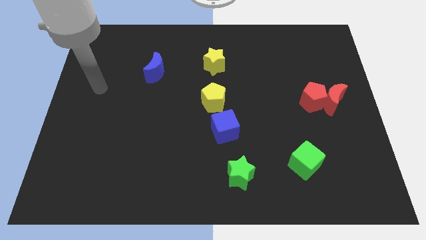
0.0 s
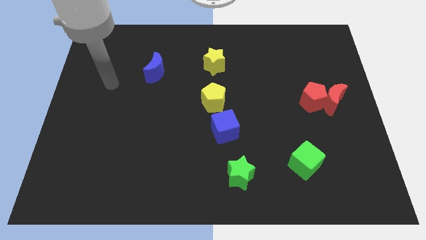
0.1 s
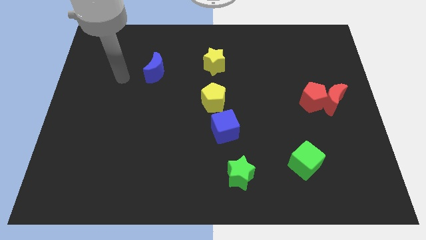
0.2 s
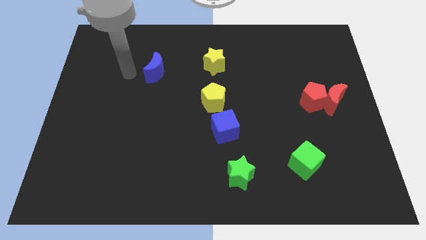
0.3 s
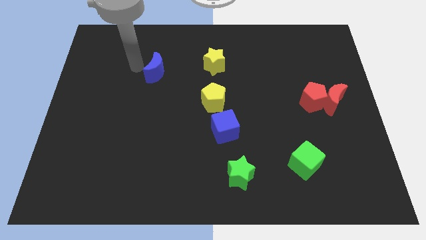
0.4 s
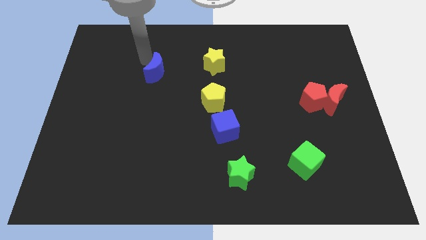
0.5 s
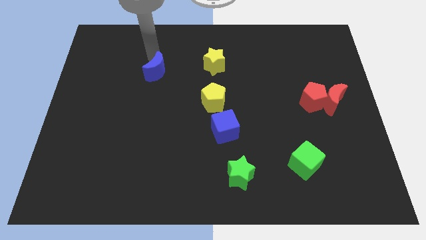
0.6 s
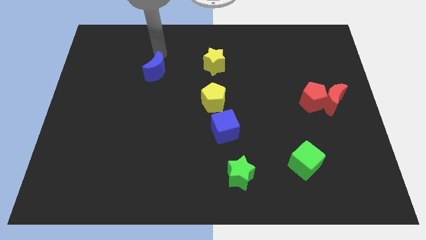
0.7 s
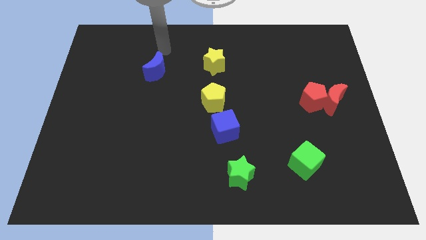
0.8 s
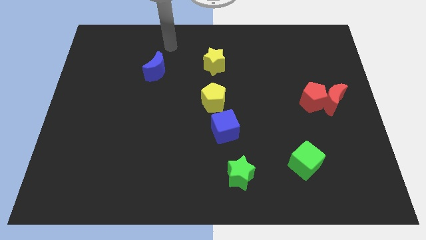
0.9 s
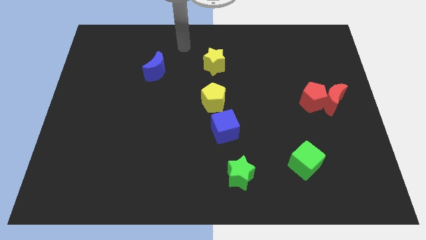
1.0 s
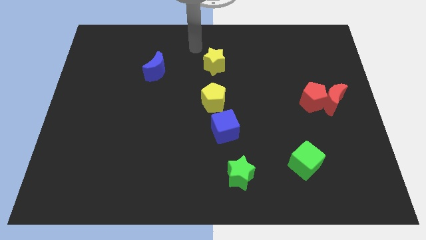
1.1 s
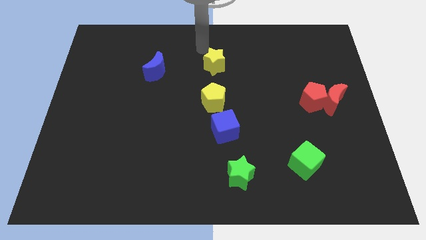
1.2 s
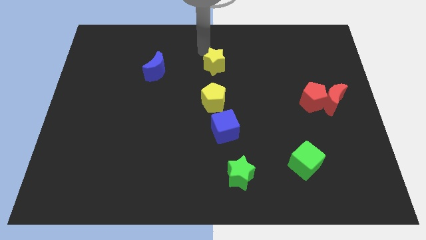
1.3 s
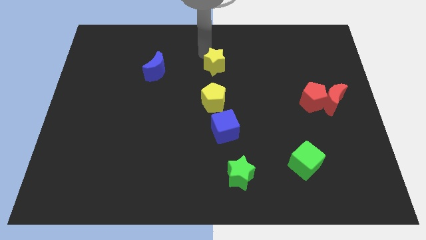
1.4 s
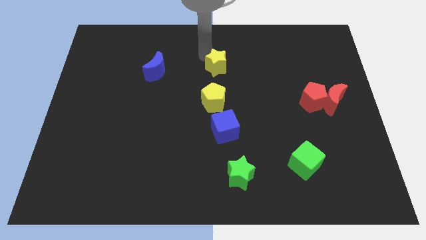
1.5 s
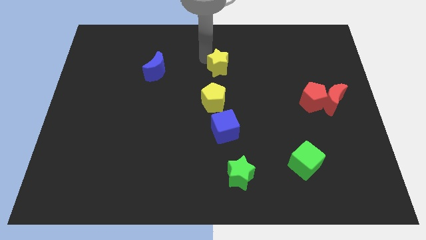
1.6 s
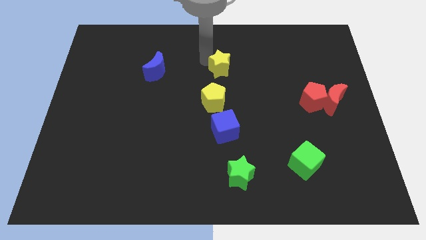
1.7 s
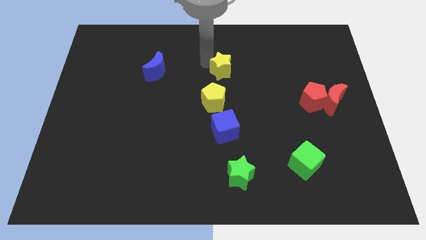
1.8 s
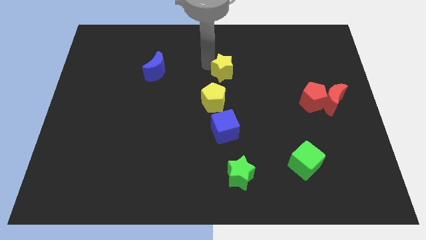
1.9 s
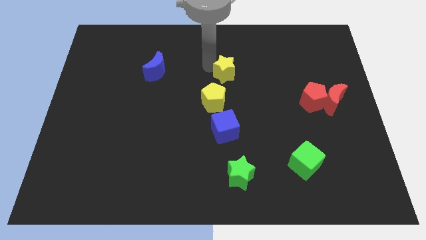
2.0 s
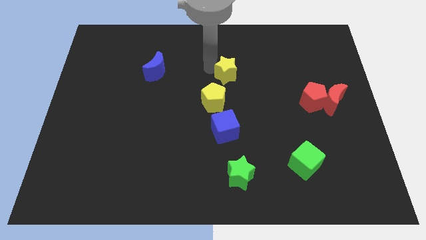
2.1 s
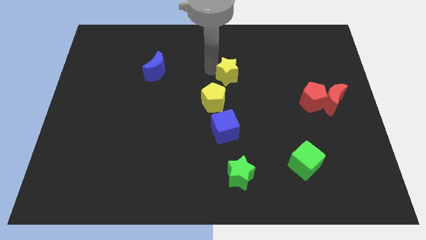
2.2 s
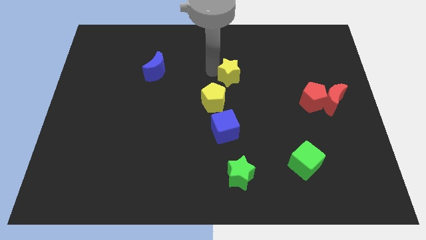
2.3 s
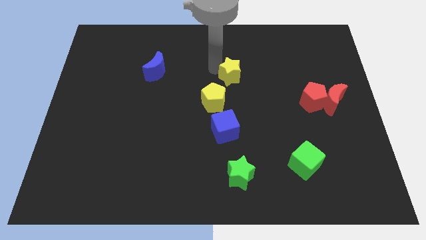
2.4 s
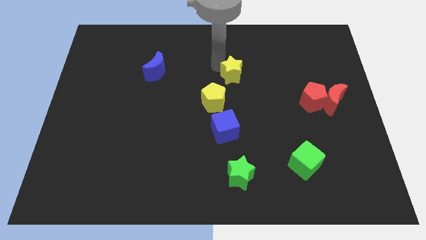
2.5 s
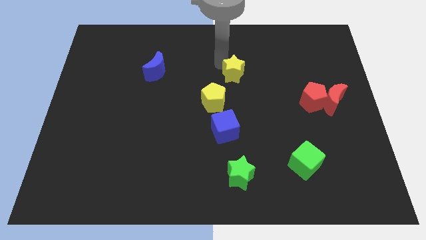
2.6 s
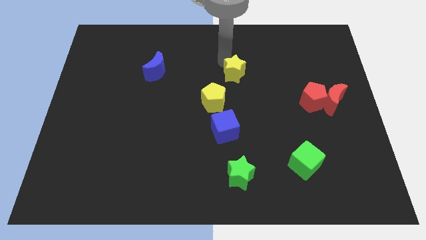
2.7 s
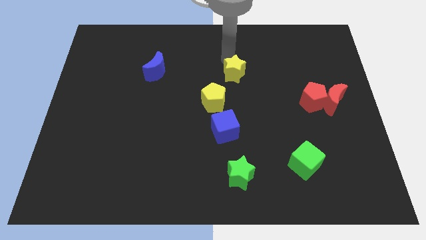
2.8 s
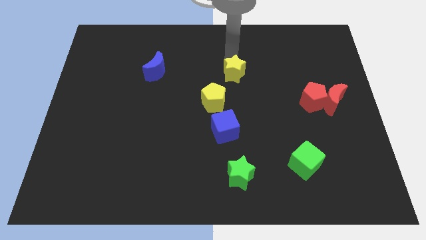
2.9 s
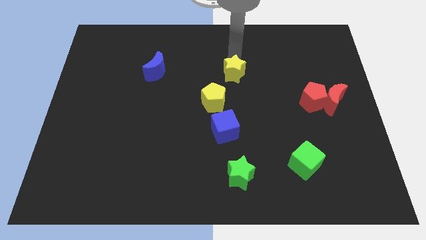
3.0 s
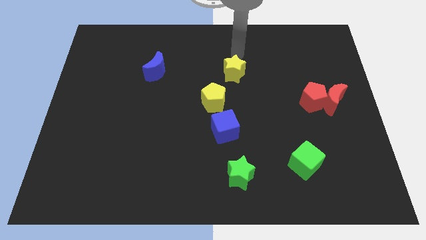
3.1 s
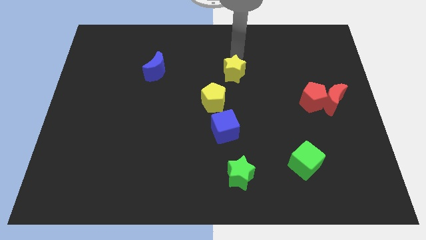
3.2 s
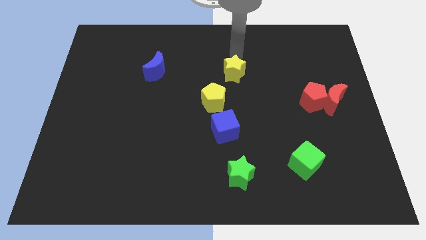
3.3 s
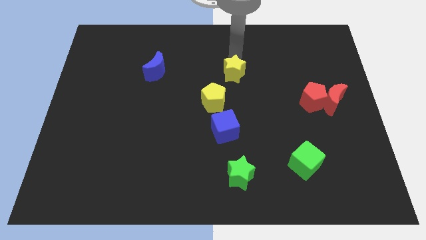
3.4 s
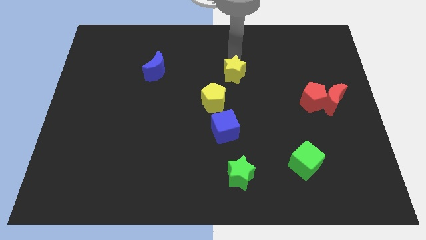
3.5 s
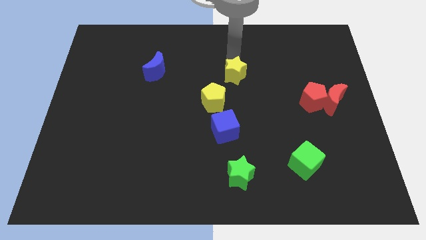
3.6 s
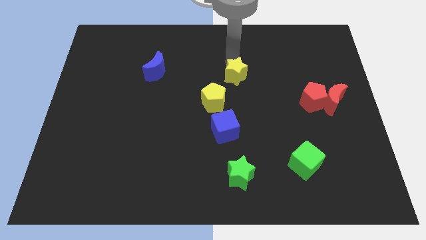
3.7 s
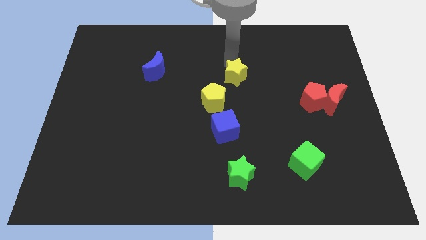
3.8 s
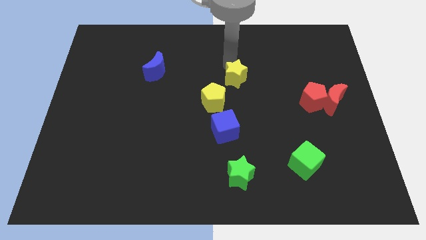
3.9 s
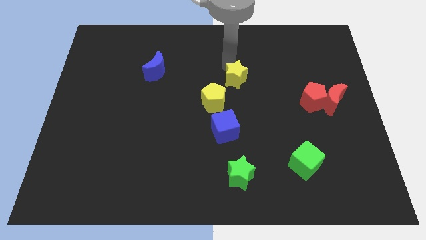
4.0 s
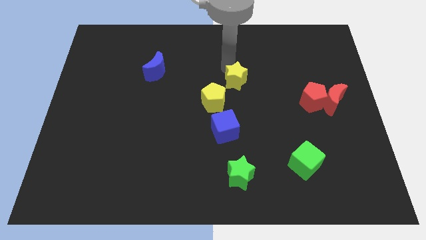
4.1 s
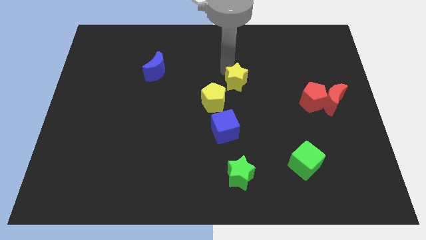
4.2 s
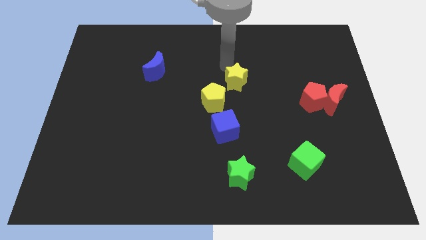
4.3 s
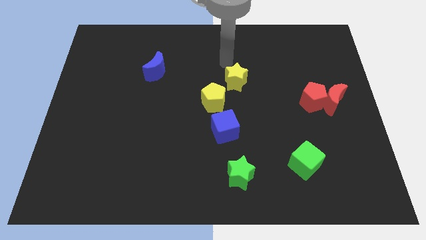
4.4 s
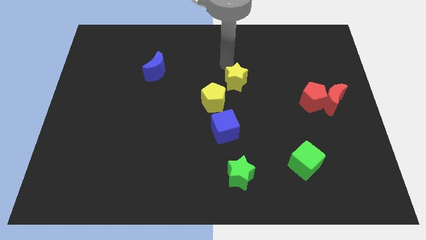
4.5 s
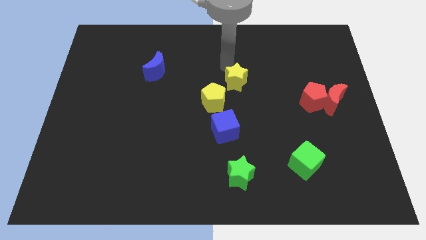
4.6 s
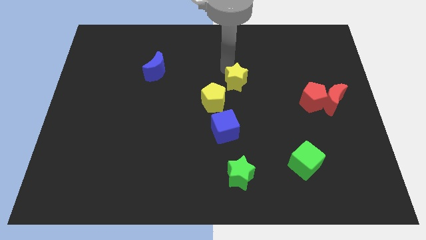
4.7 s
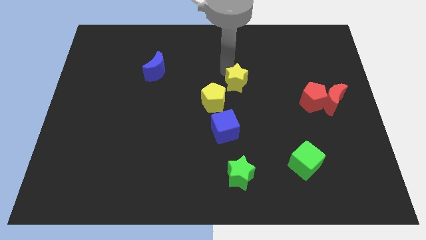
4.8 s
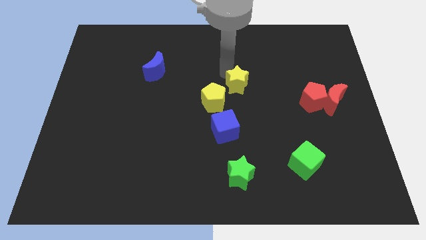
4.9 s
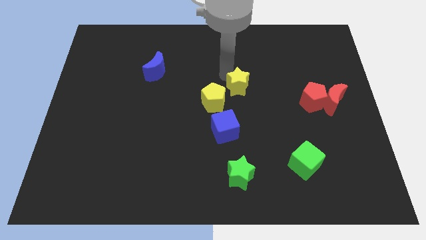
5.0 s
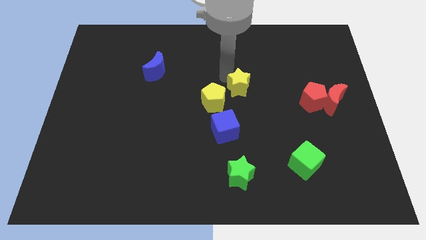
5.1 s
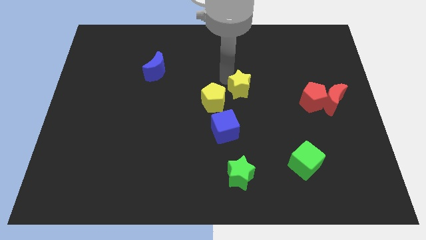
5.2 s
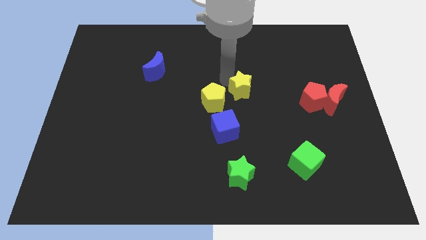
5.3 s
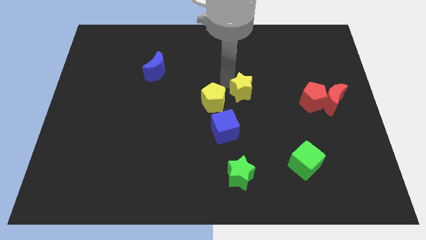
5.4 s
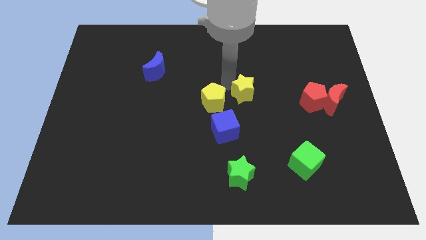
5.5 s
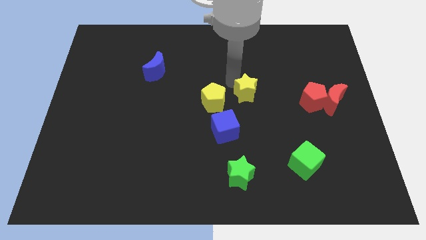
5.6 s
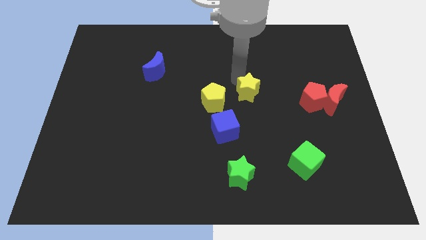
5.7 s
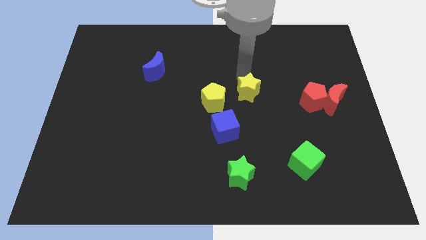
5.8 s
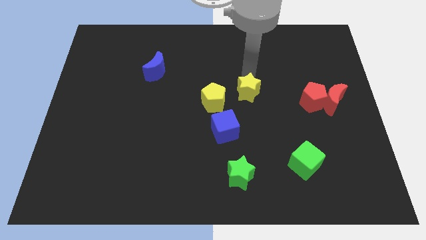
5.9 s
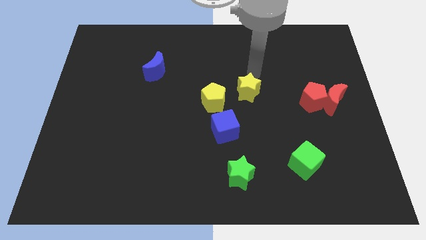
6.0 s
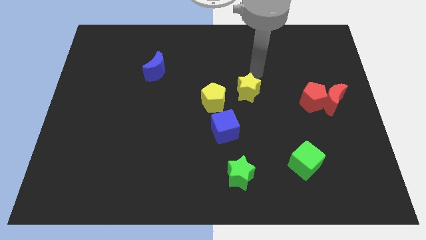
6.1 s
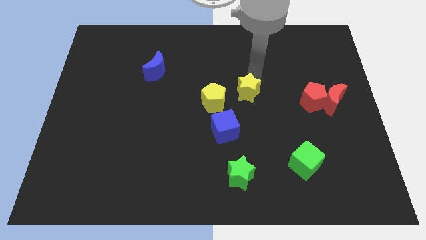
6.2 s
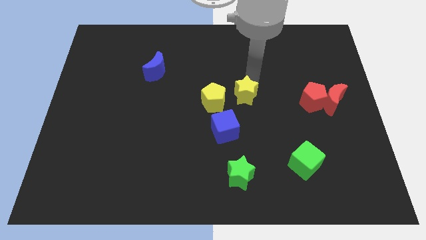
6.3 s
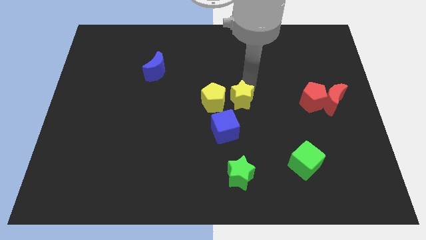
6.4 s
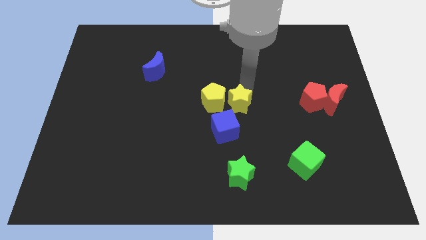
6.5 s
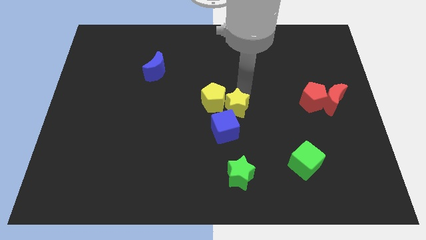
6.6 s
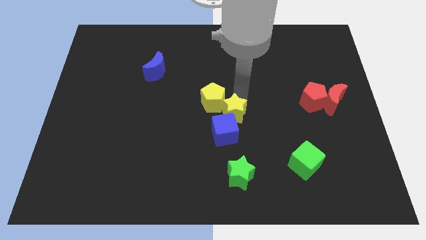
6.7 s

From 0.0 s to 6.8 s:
push the yellow star close to the blue cube
